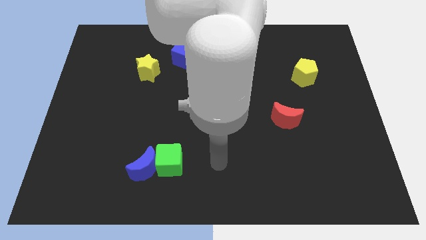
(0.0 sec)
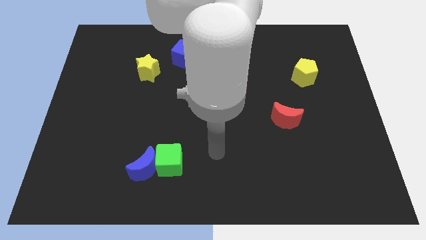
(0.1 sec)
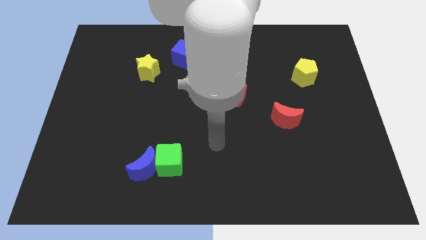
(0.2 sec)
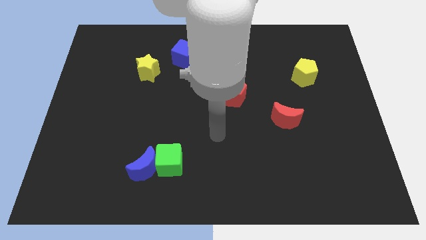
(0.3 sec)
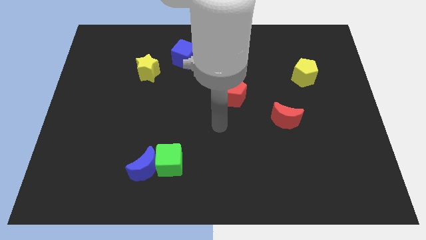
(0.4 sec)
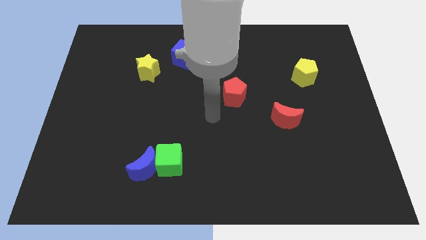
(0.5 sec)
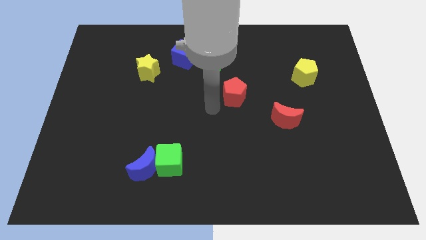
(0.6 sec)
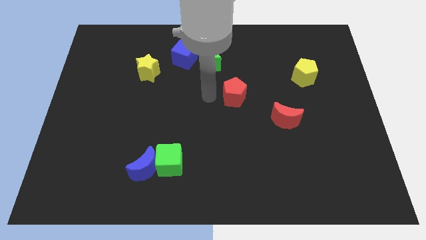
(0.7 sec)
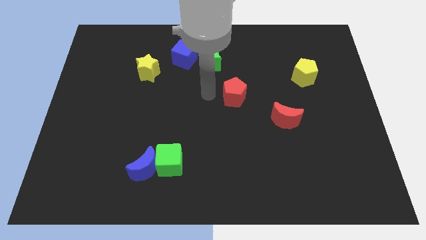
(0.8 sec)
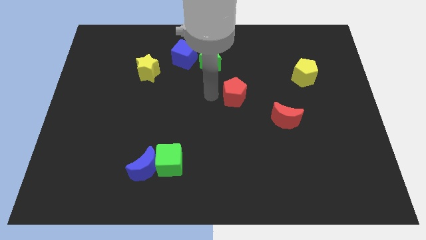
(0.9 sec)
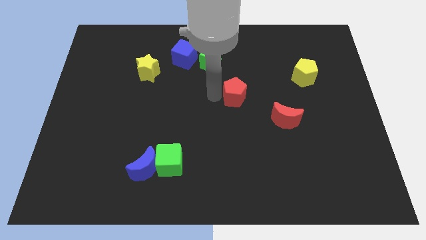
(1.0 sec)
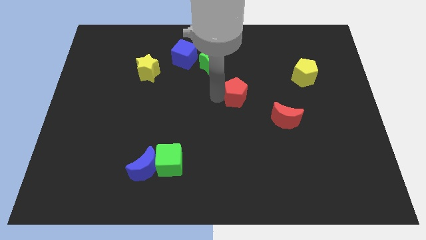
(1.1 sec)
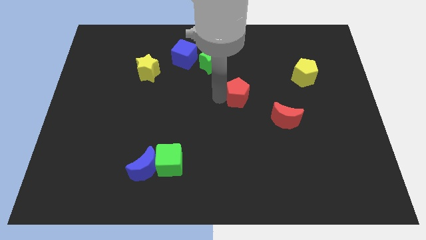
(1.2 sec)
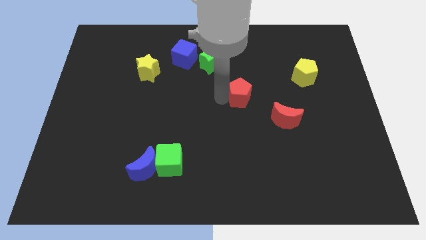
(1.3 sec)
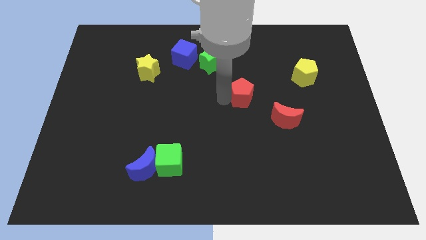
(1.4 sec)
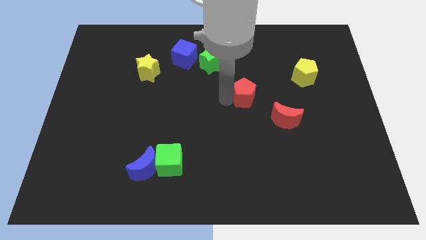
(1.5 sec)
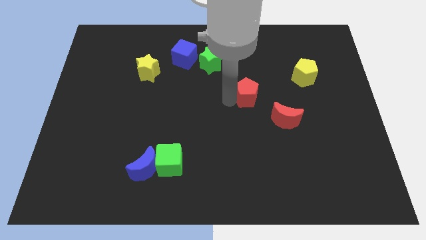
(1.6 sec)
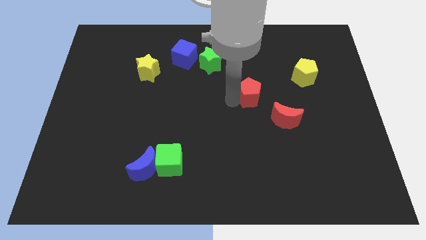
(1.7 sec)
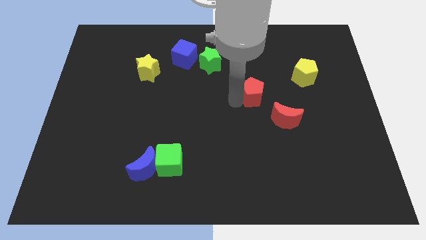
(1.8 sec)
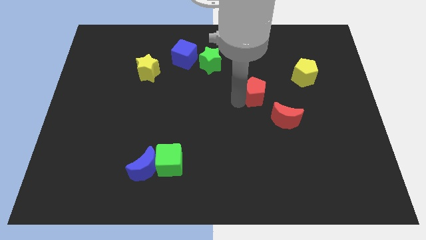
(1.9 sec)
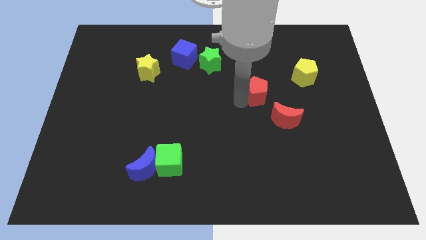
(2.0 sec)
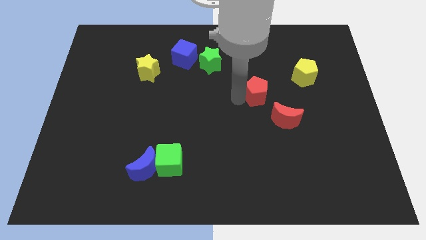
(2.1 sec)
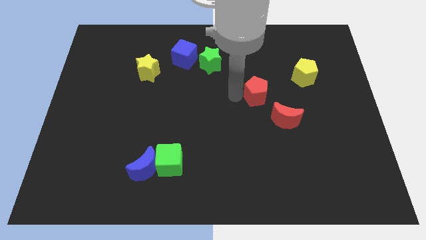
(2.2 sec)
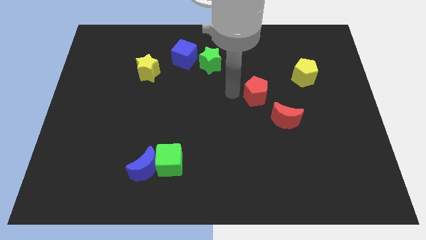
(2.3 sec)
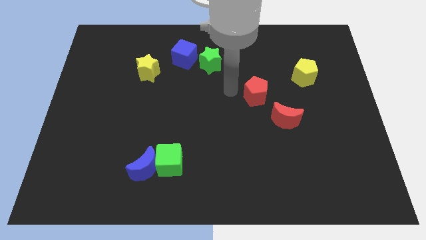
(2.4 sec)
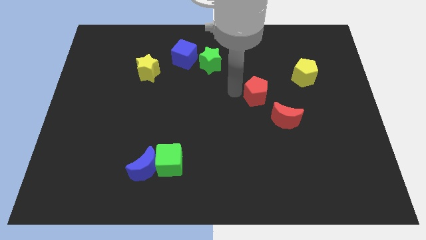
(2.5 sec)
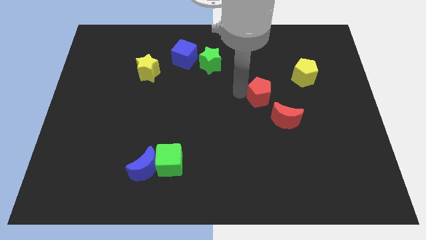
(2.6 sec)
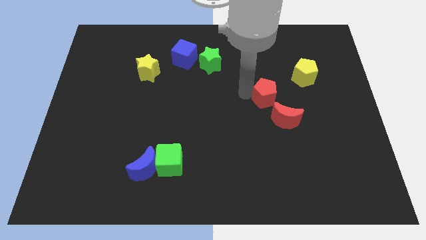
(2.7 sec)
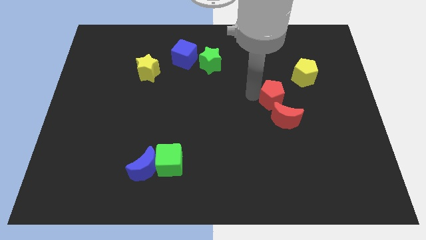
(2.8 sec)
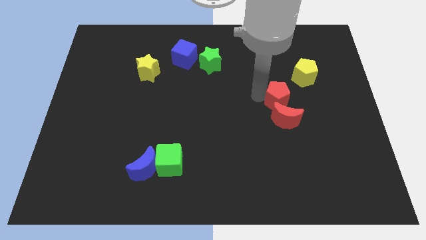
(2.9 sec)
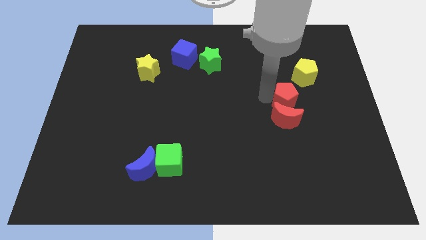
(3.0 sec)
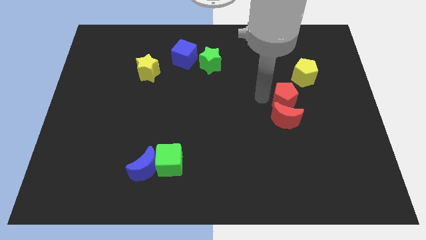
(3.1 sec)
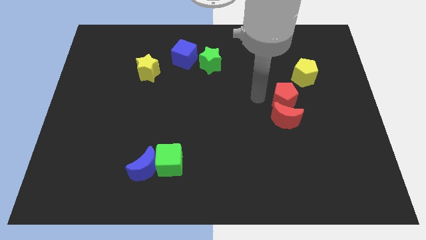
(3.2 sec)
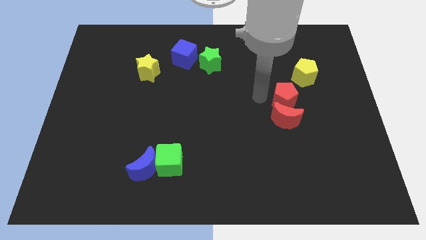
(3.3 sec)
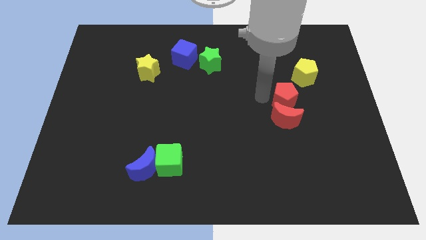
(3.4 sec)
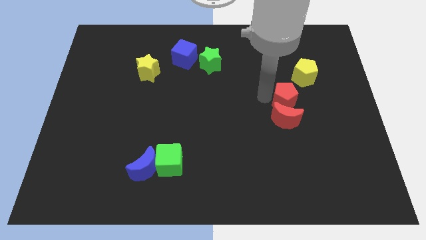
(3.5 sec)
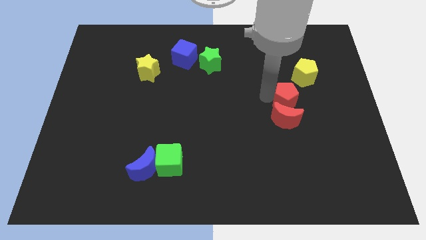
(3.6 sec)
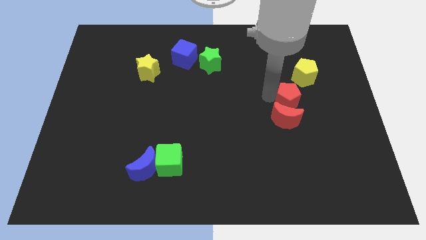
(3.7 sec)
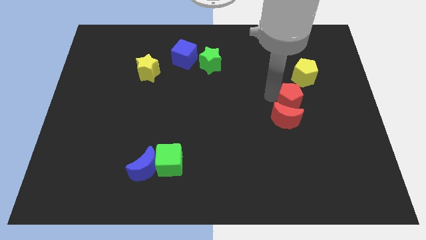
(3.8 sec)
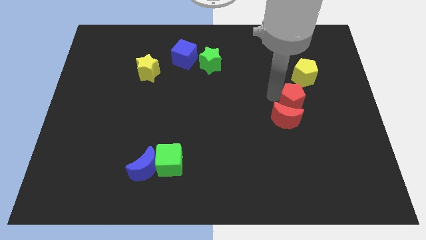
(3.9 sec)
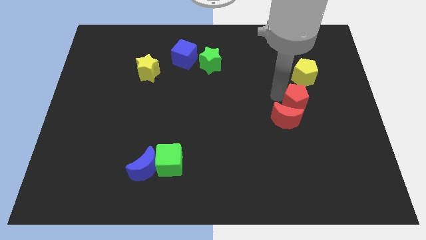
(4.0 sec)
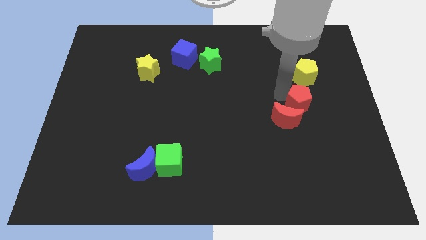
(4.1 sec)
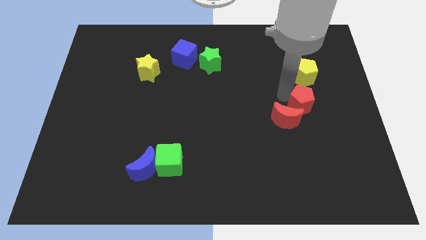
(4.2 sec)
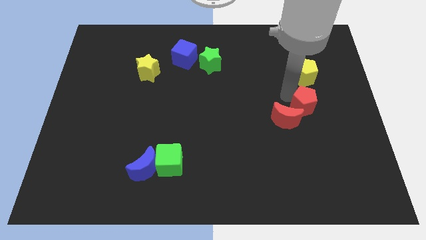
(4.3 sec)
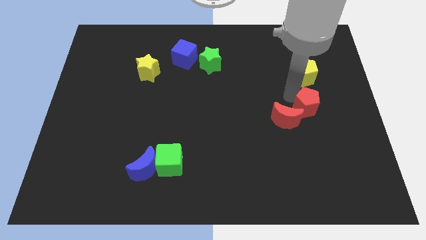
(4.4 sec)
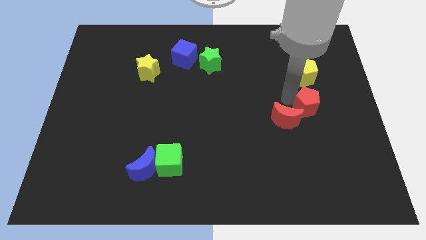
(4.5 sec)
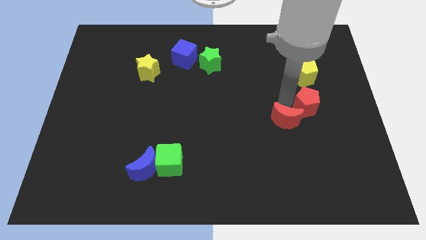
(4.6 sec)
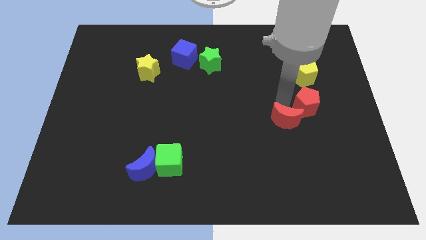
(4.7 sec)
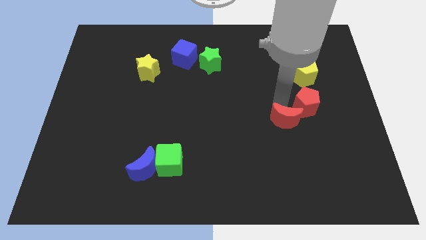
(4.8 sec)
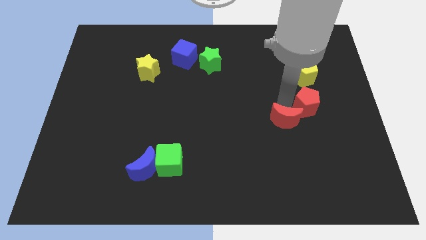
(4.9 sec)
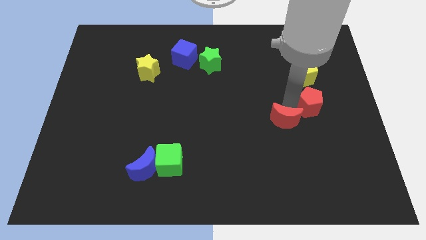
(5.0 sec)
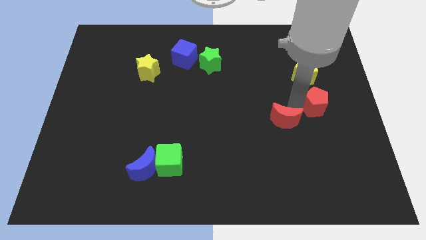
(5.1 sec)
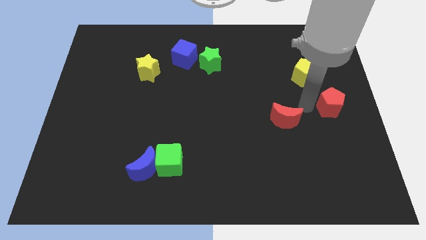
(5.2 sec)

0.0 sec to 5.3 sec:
slide the red pentagon to the center right

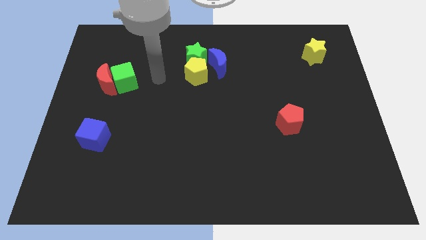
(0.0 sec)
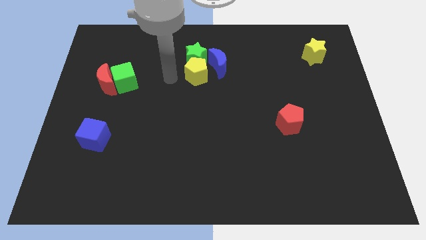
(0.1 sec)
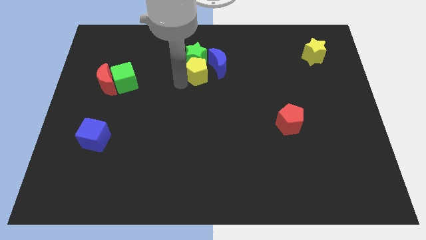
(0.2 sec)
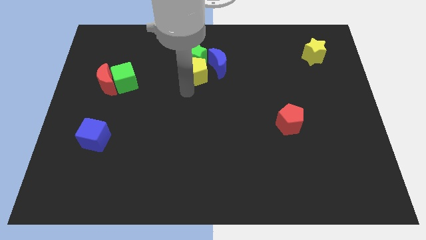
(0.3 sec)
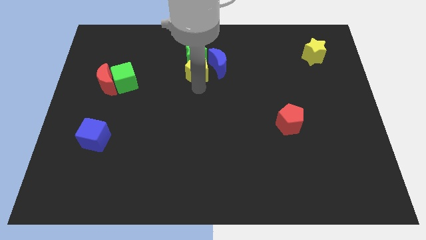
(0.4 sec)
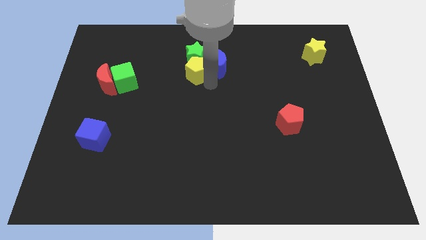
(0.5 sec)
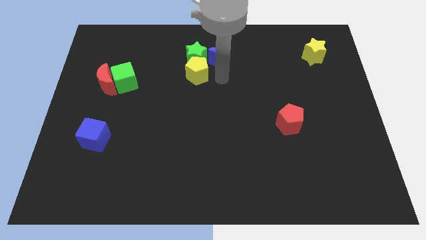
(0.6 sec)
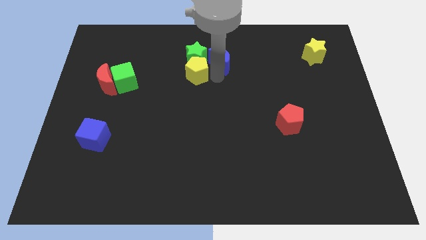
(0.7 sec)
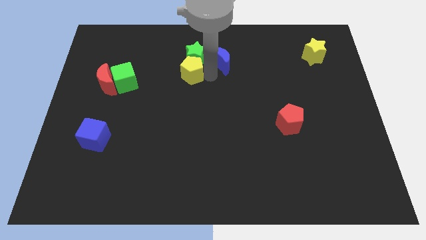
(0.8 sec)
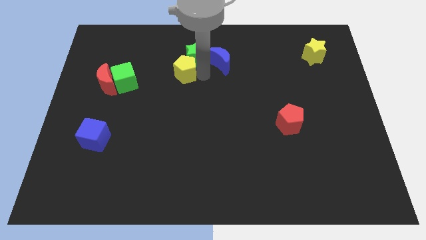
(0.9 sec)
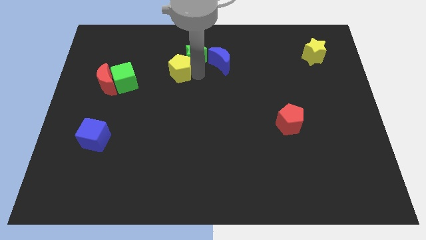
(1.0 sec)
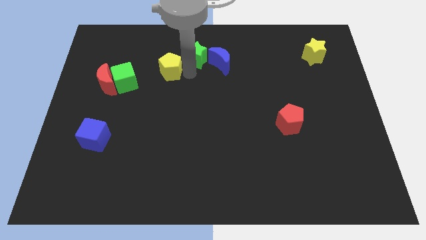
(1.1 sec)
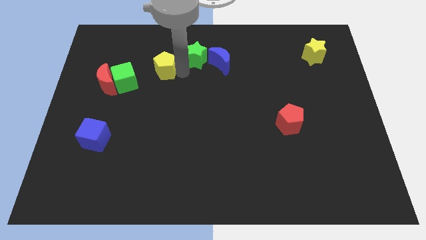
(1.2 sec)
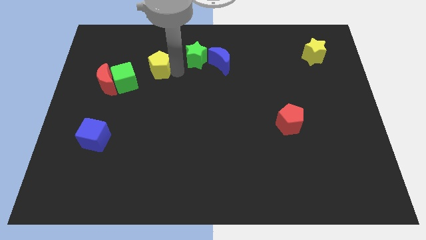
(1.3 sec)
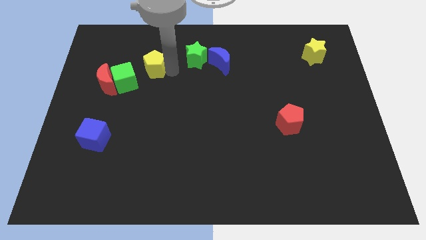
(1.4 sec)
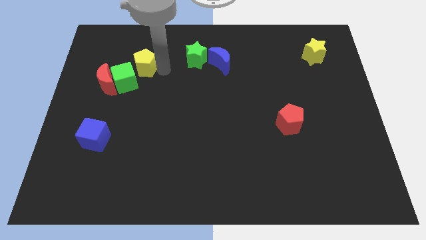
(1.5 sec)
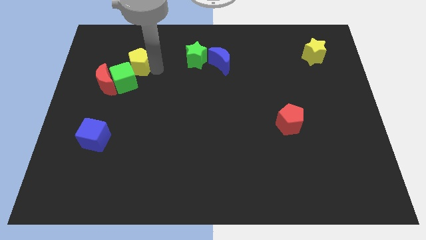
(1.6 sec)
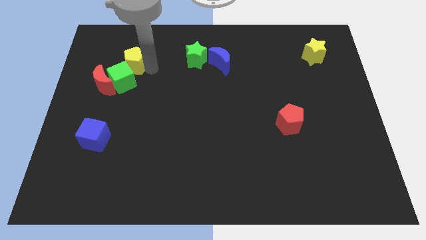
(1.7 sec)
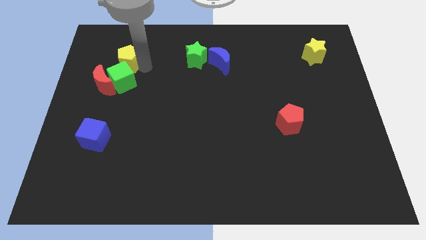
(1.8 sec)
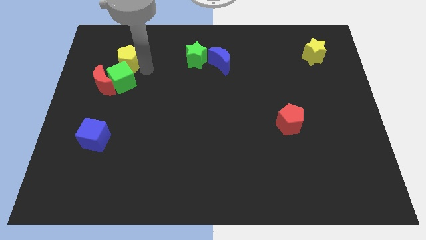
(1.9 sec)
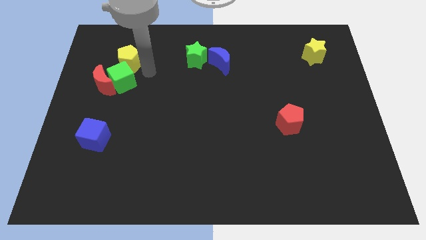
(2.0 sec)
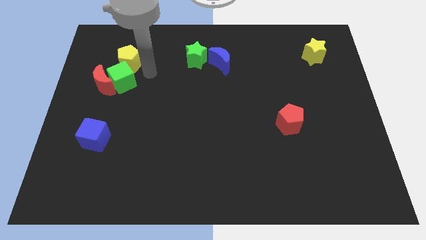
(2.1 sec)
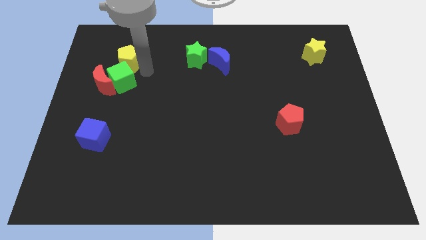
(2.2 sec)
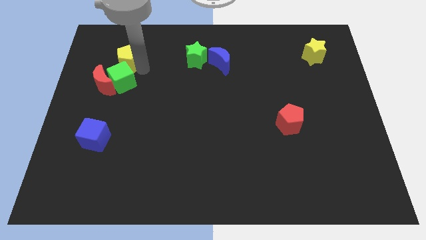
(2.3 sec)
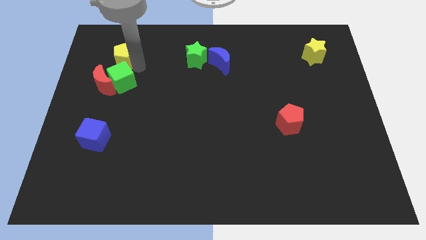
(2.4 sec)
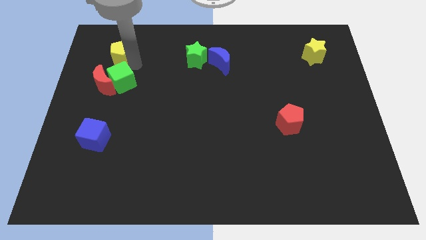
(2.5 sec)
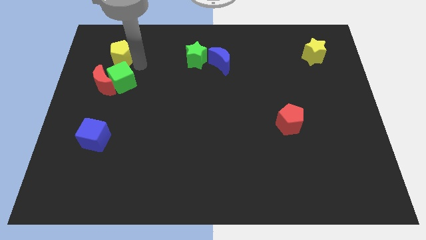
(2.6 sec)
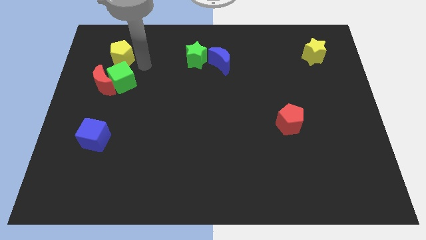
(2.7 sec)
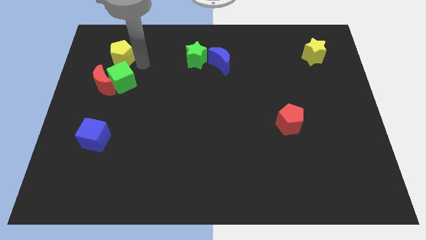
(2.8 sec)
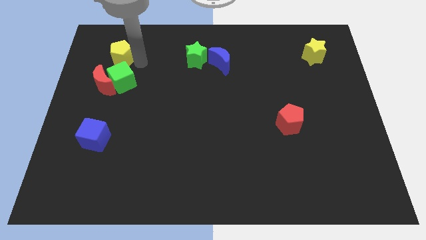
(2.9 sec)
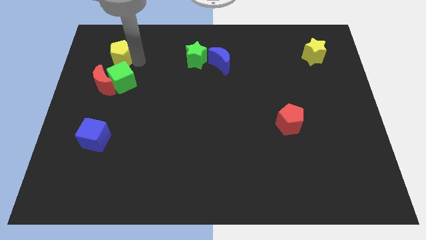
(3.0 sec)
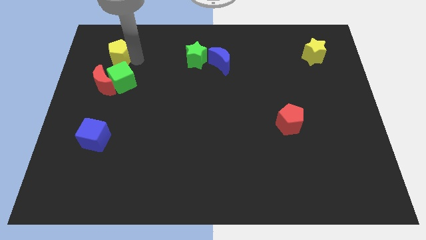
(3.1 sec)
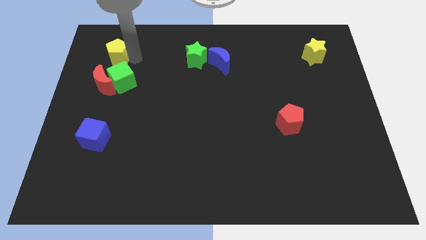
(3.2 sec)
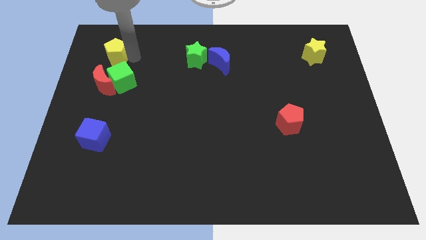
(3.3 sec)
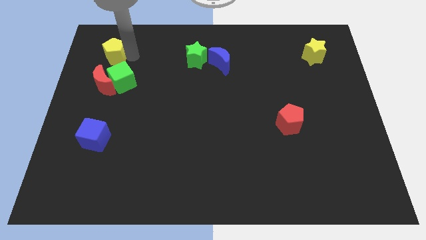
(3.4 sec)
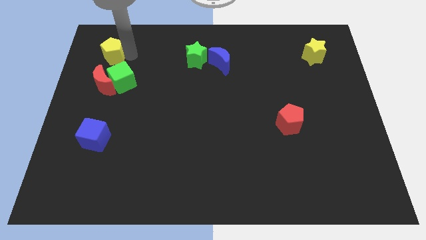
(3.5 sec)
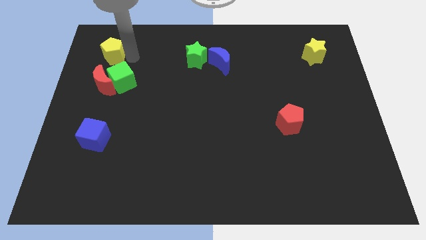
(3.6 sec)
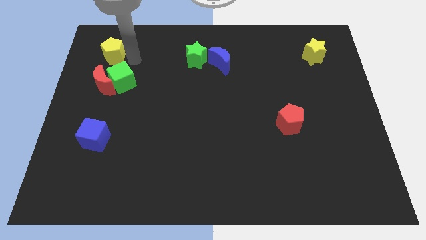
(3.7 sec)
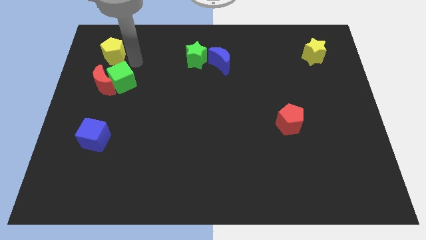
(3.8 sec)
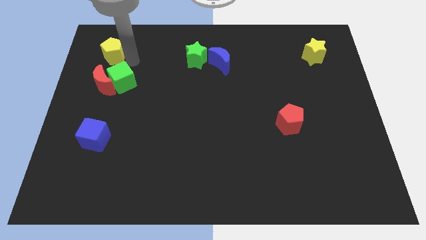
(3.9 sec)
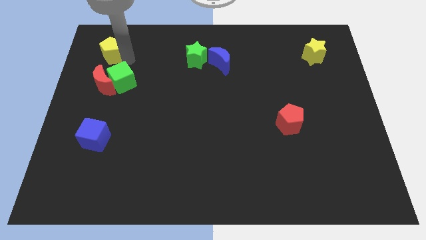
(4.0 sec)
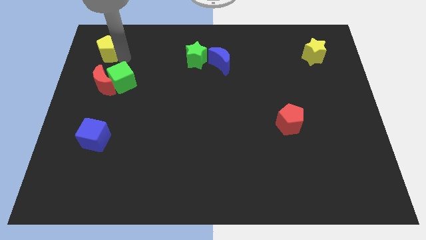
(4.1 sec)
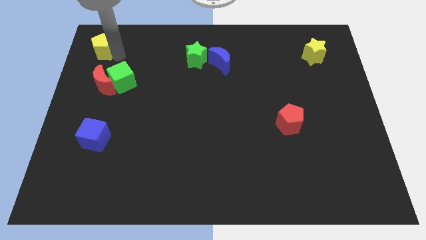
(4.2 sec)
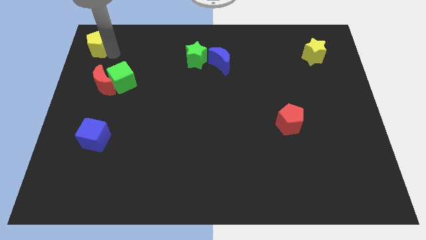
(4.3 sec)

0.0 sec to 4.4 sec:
move the yellow pentagon to the top left
